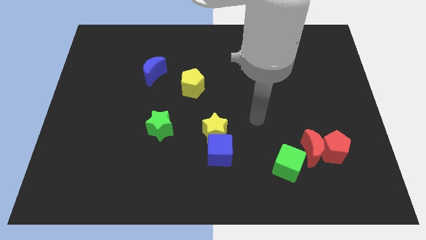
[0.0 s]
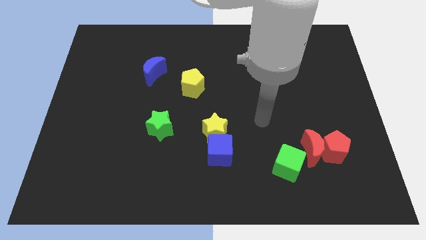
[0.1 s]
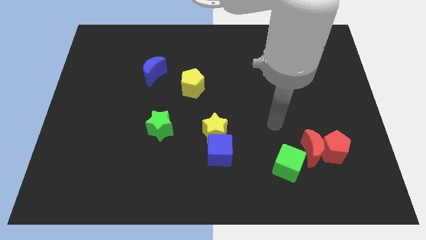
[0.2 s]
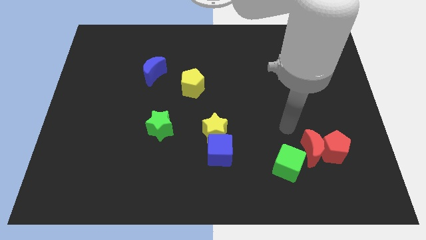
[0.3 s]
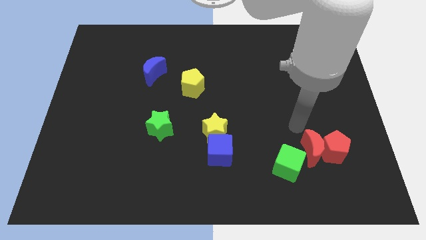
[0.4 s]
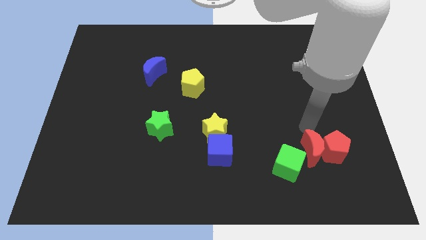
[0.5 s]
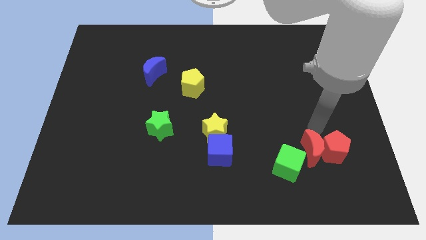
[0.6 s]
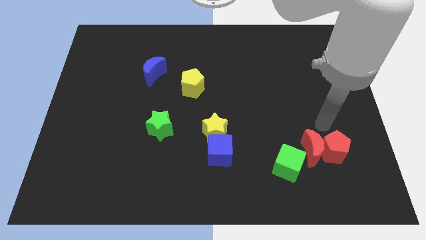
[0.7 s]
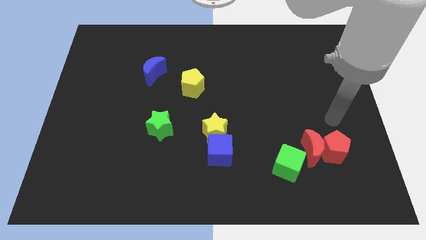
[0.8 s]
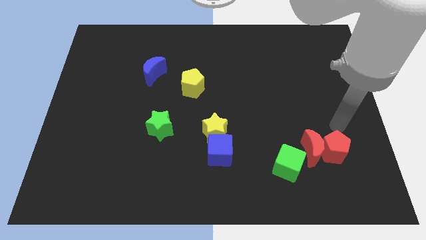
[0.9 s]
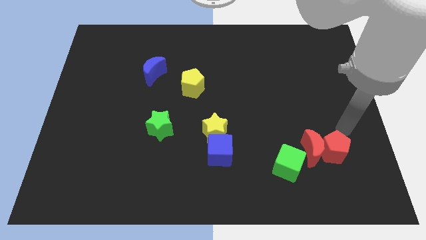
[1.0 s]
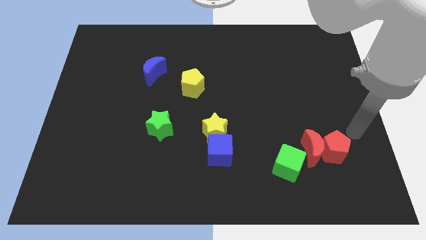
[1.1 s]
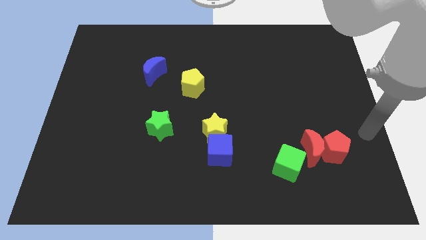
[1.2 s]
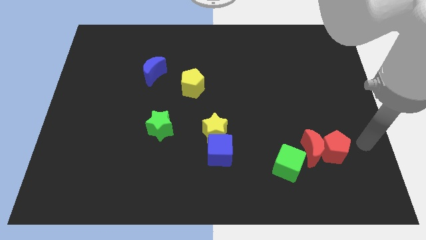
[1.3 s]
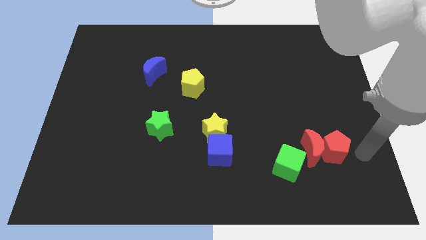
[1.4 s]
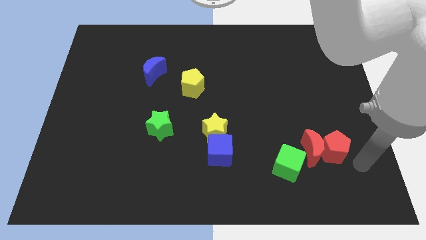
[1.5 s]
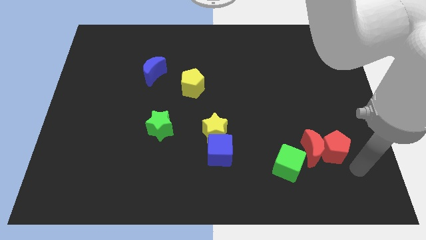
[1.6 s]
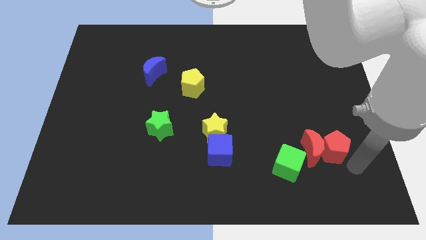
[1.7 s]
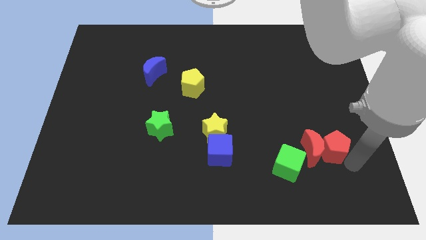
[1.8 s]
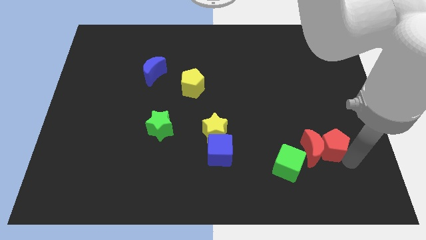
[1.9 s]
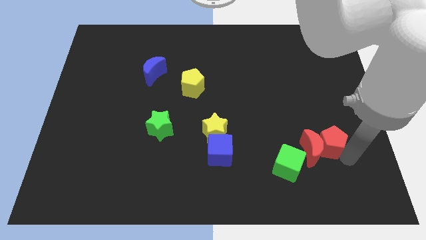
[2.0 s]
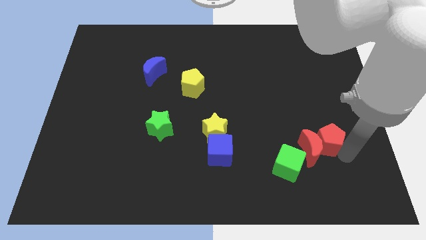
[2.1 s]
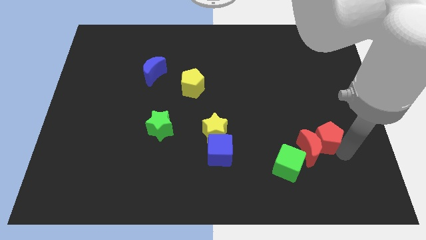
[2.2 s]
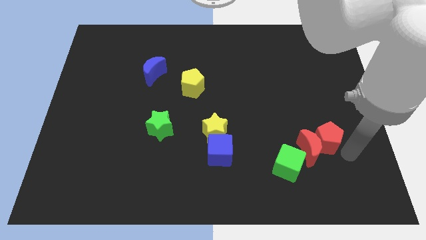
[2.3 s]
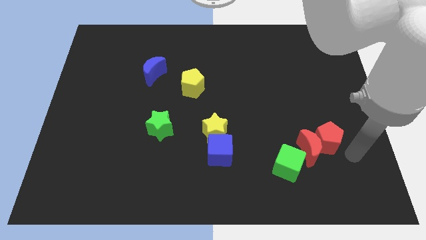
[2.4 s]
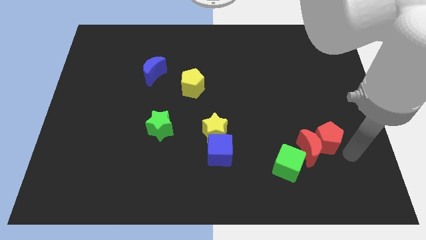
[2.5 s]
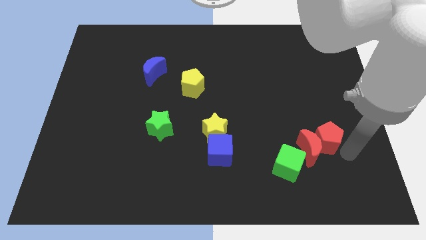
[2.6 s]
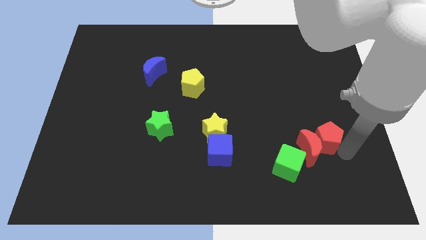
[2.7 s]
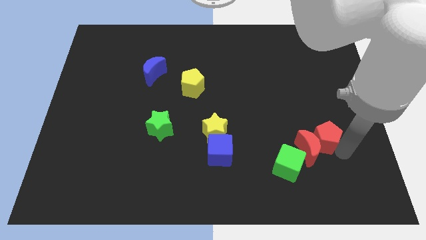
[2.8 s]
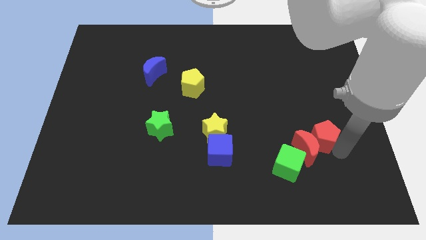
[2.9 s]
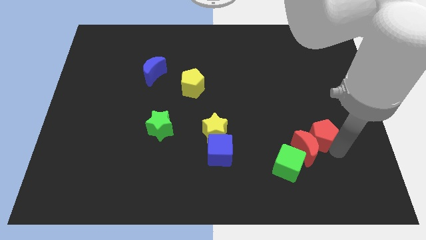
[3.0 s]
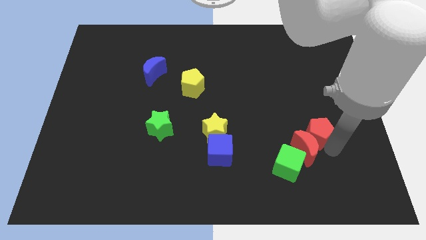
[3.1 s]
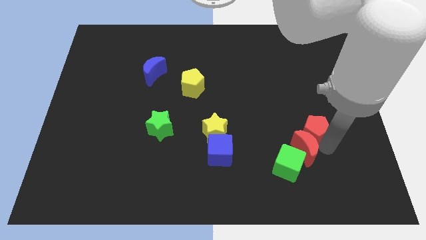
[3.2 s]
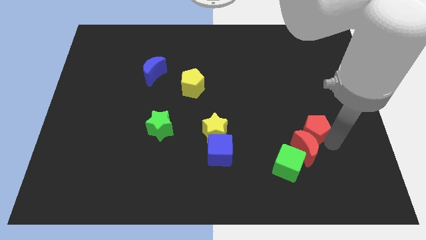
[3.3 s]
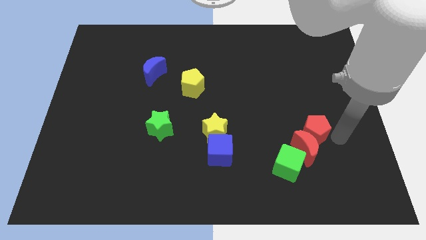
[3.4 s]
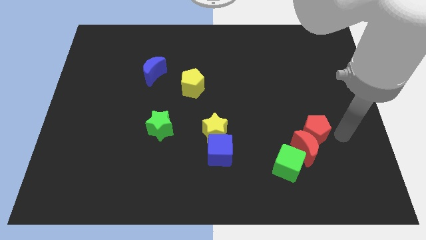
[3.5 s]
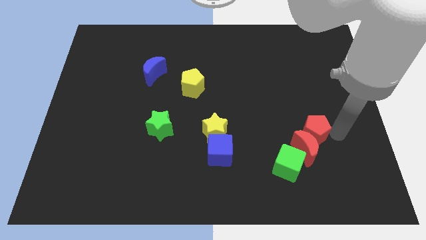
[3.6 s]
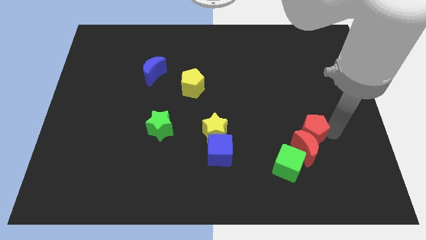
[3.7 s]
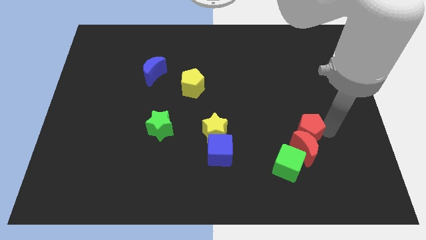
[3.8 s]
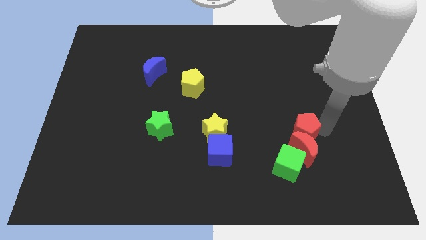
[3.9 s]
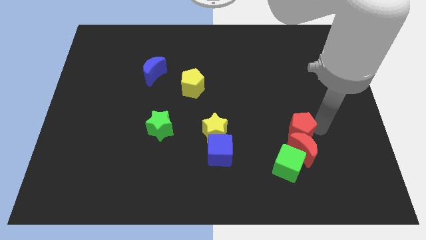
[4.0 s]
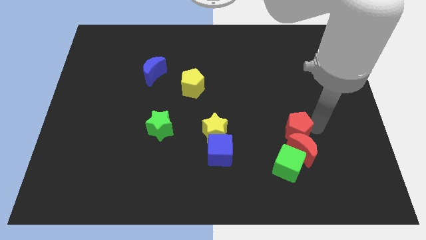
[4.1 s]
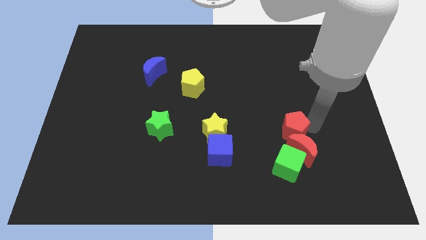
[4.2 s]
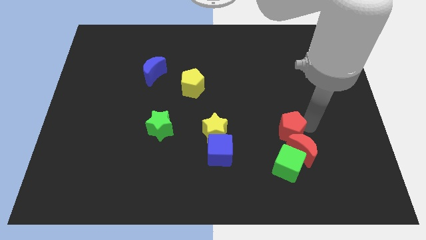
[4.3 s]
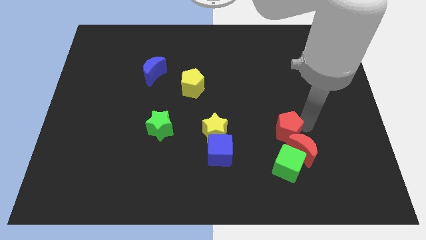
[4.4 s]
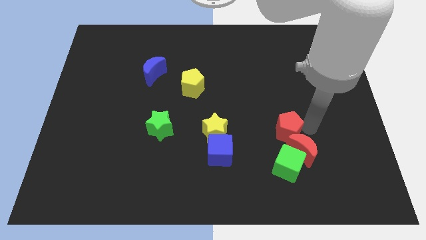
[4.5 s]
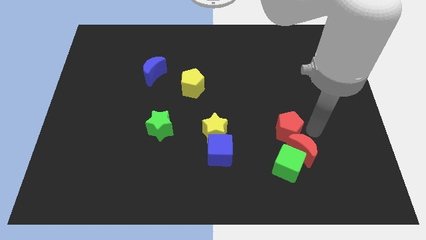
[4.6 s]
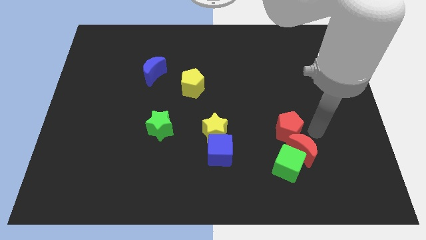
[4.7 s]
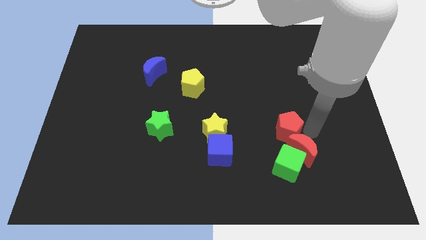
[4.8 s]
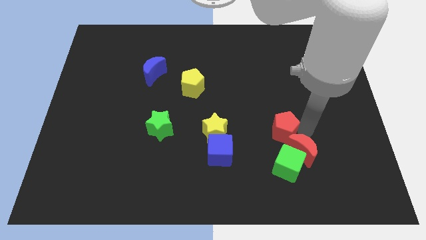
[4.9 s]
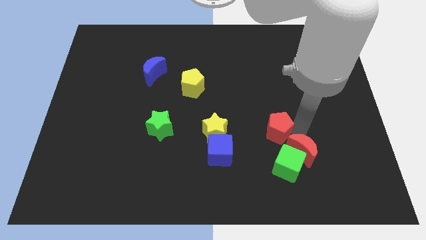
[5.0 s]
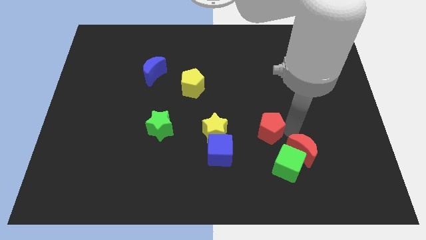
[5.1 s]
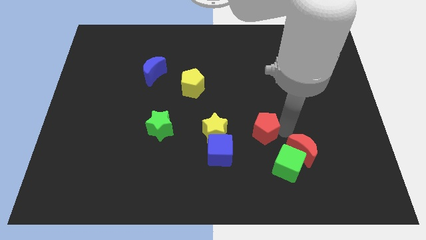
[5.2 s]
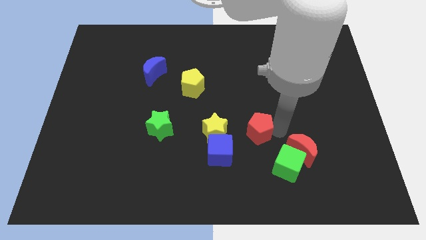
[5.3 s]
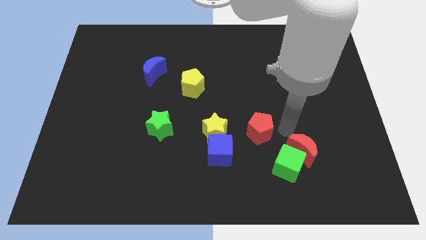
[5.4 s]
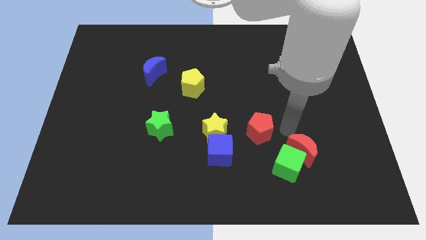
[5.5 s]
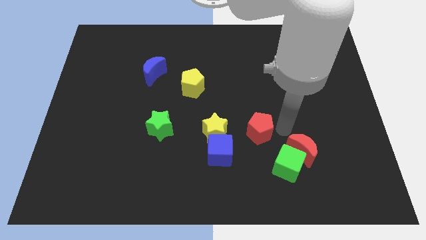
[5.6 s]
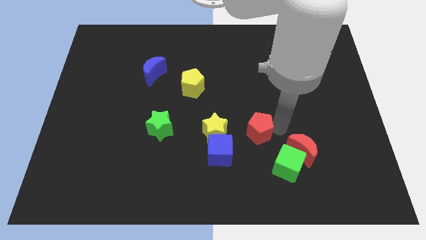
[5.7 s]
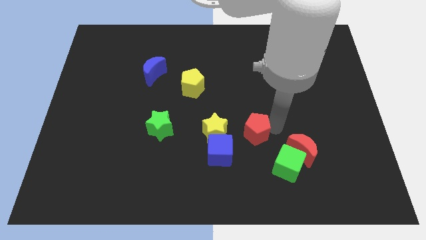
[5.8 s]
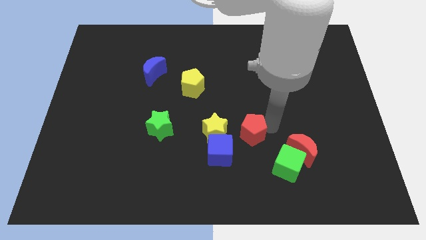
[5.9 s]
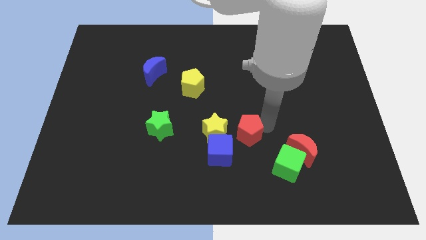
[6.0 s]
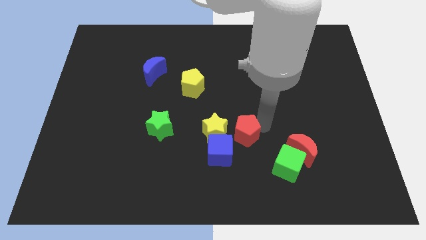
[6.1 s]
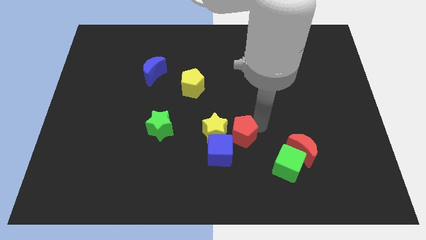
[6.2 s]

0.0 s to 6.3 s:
move the red pentagon close to the yellow star
